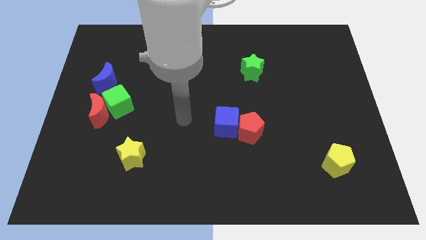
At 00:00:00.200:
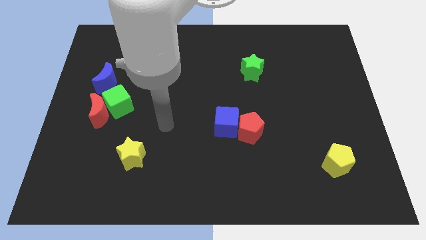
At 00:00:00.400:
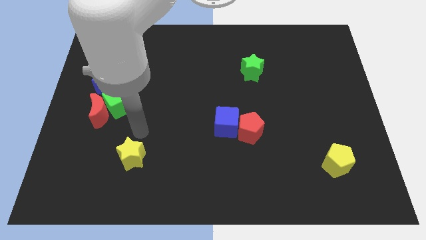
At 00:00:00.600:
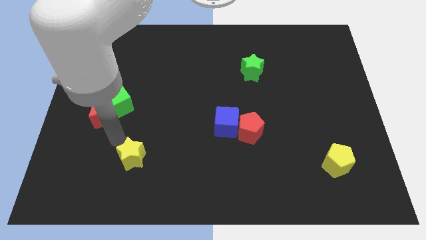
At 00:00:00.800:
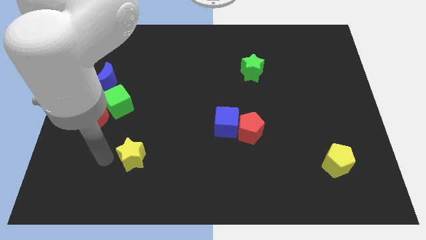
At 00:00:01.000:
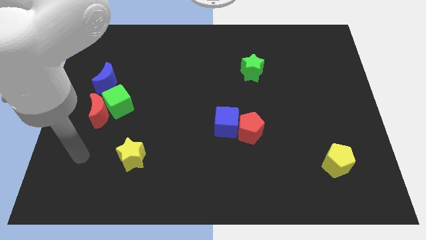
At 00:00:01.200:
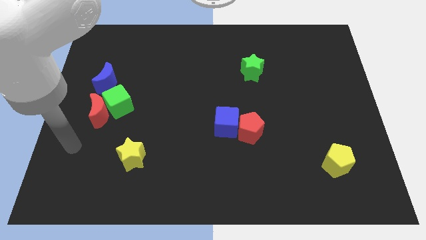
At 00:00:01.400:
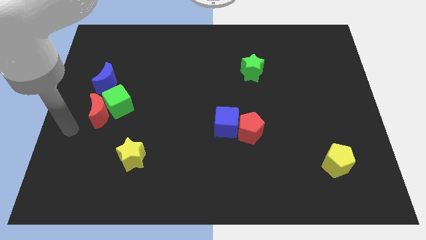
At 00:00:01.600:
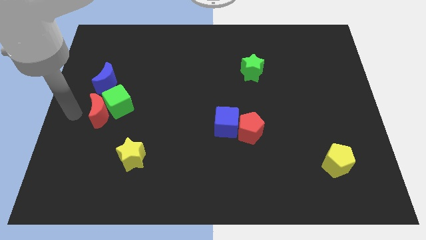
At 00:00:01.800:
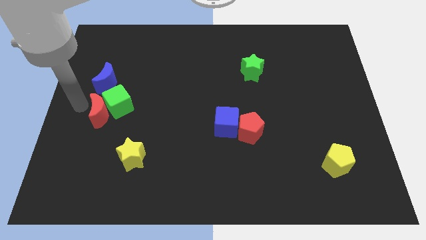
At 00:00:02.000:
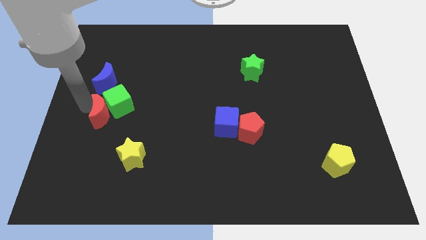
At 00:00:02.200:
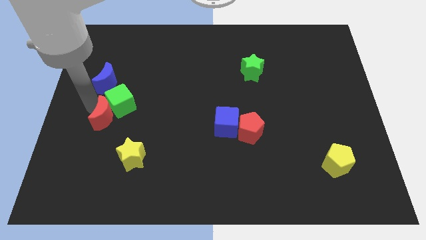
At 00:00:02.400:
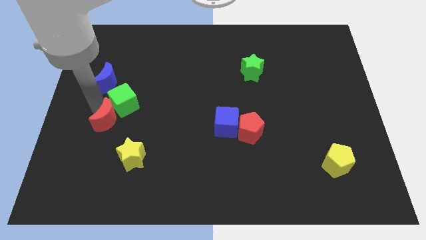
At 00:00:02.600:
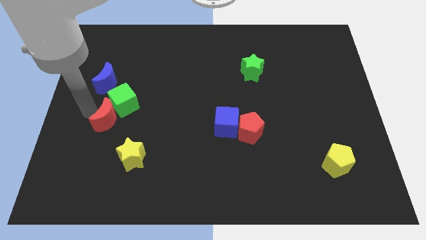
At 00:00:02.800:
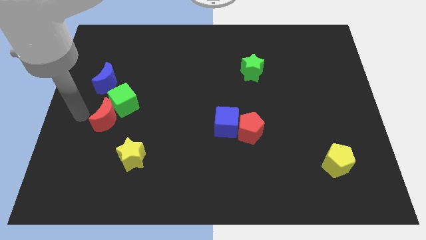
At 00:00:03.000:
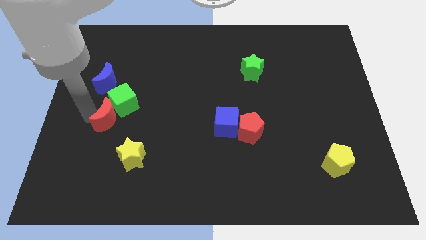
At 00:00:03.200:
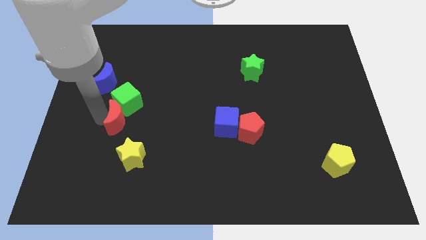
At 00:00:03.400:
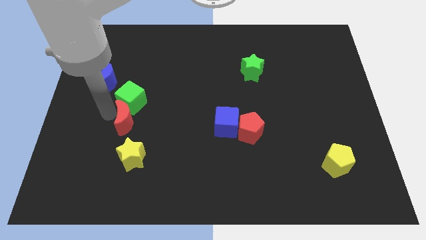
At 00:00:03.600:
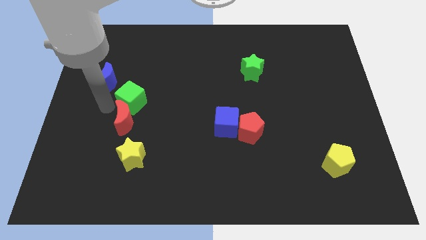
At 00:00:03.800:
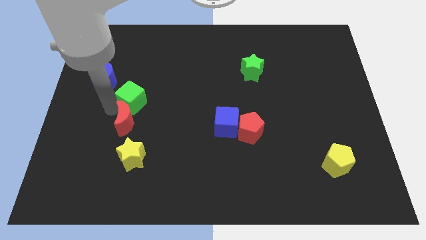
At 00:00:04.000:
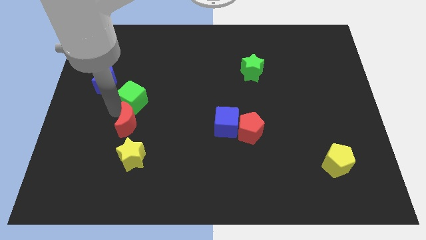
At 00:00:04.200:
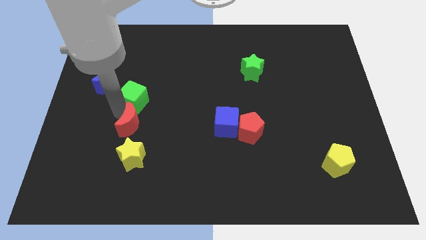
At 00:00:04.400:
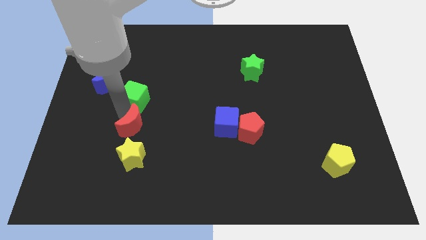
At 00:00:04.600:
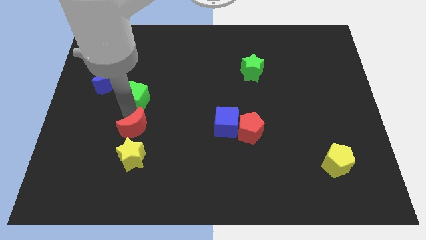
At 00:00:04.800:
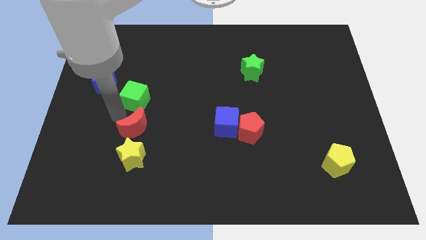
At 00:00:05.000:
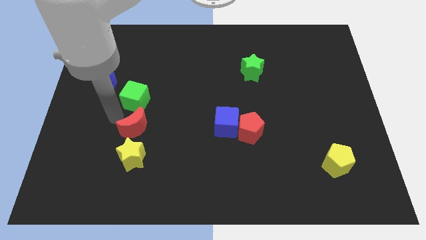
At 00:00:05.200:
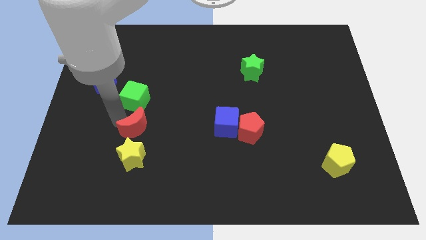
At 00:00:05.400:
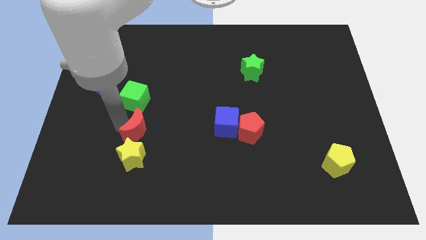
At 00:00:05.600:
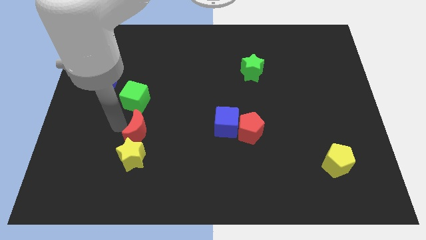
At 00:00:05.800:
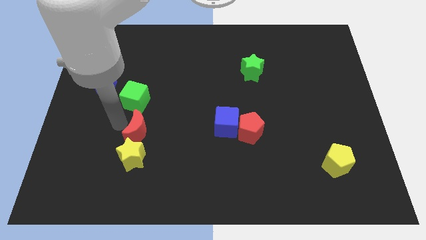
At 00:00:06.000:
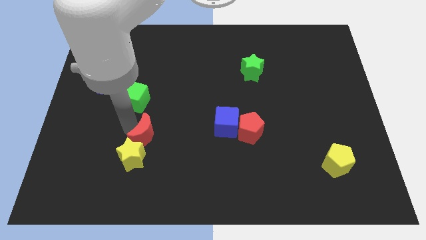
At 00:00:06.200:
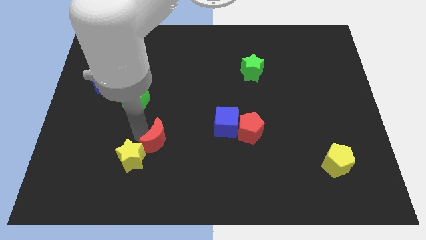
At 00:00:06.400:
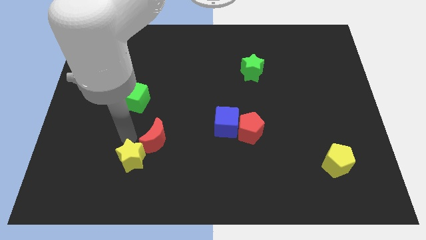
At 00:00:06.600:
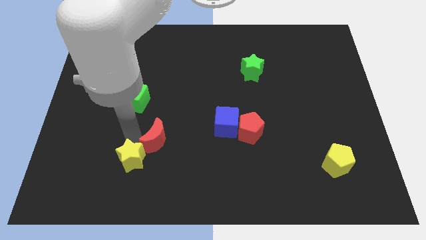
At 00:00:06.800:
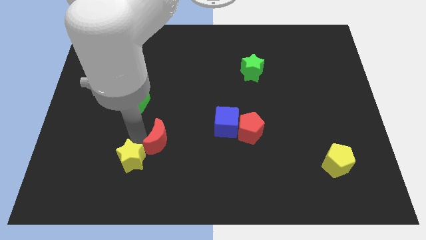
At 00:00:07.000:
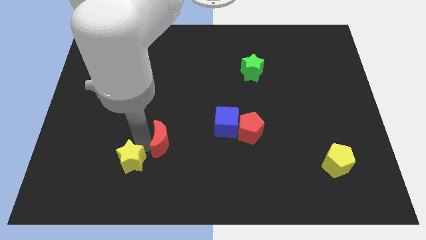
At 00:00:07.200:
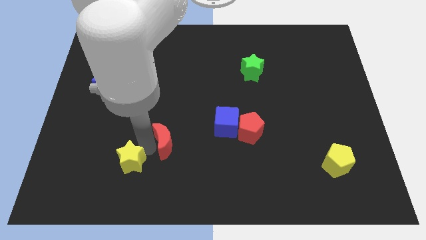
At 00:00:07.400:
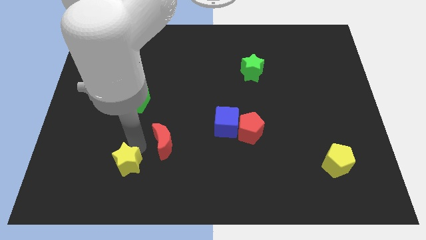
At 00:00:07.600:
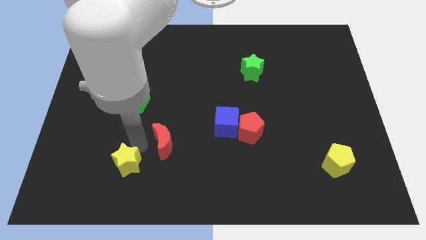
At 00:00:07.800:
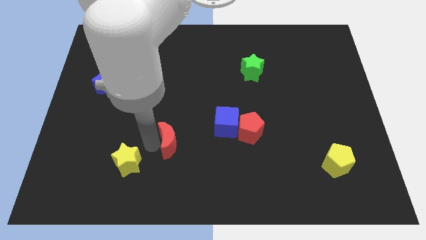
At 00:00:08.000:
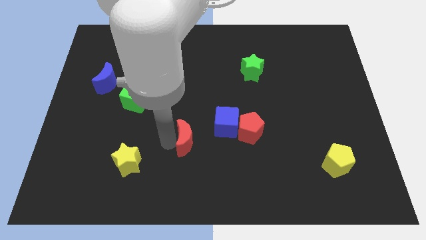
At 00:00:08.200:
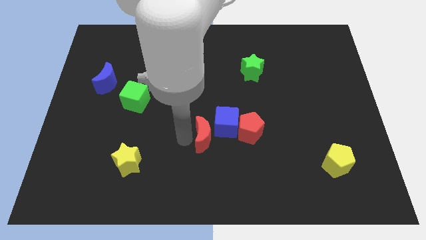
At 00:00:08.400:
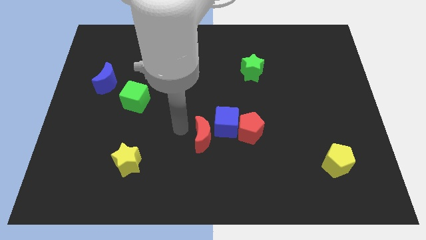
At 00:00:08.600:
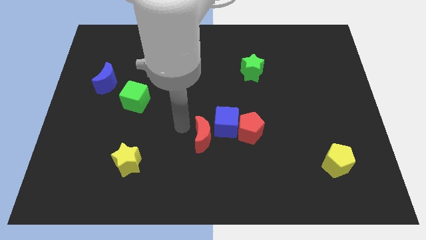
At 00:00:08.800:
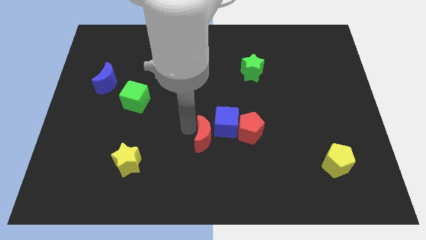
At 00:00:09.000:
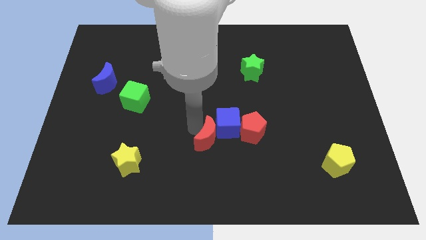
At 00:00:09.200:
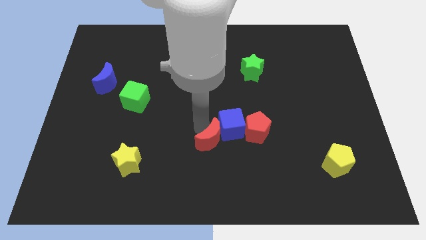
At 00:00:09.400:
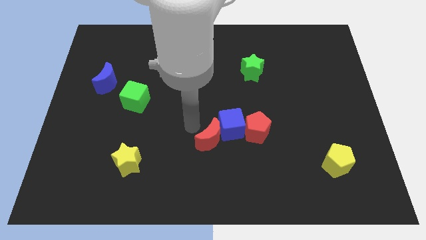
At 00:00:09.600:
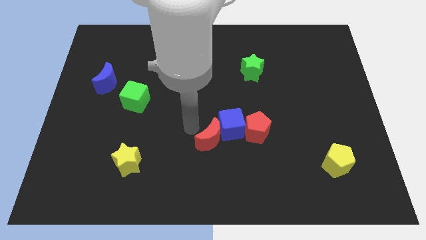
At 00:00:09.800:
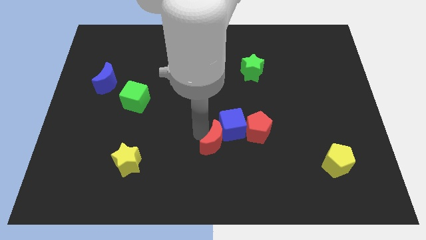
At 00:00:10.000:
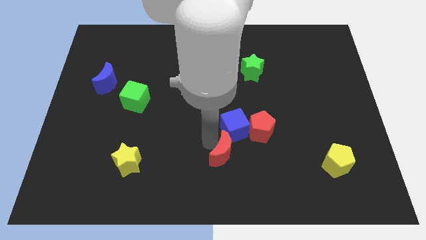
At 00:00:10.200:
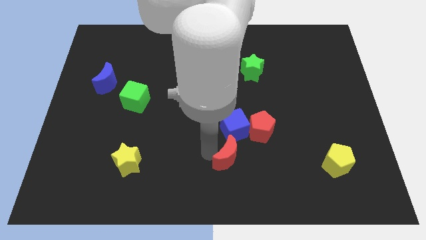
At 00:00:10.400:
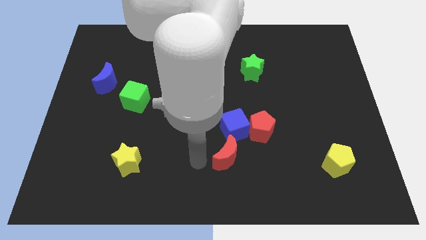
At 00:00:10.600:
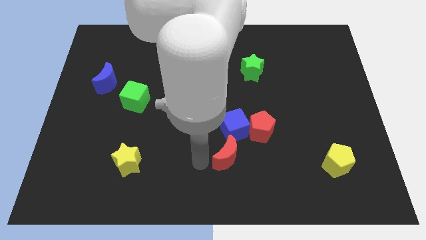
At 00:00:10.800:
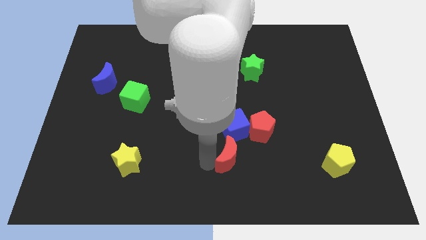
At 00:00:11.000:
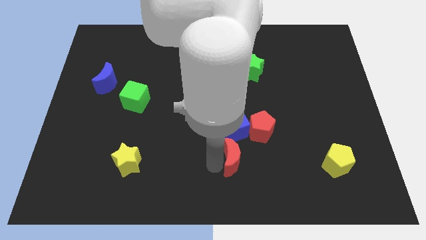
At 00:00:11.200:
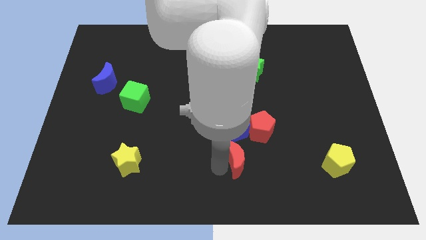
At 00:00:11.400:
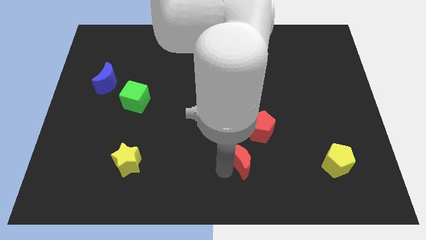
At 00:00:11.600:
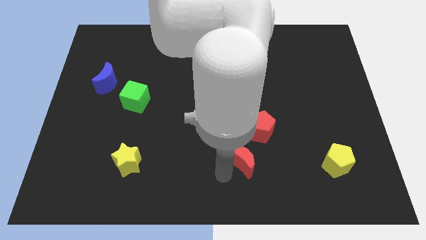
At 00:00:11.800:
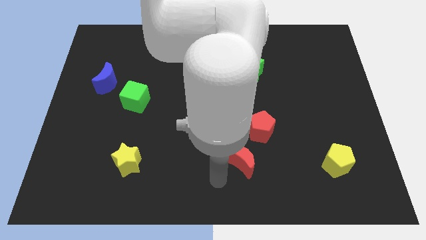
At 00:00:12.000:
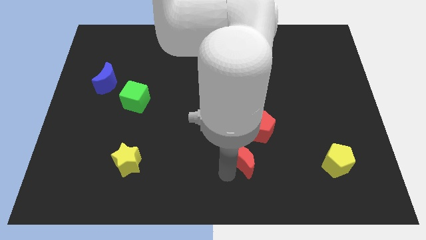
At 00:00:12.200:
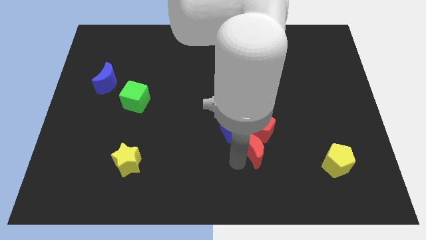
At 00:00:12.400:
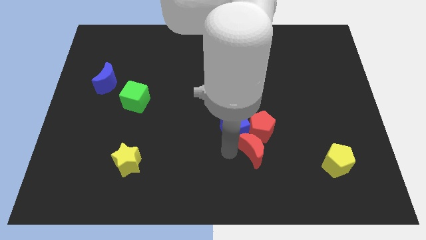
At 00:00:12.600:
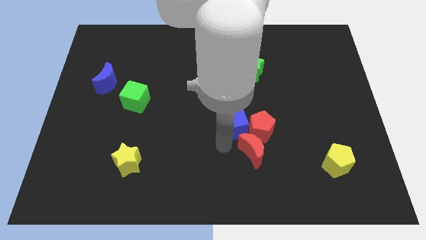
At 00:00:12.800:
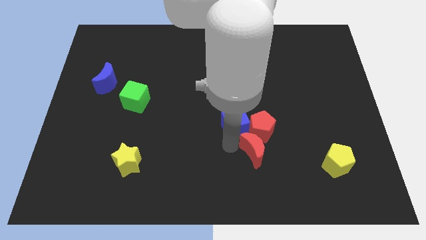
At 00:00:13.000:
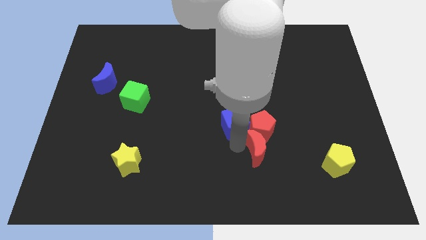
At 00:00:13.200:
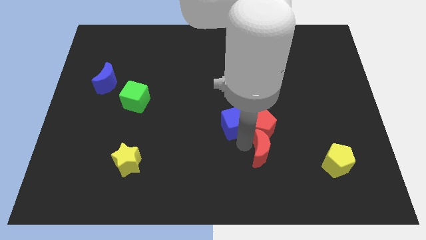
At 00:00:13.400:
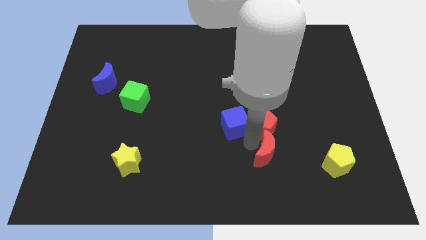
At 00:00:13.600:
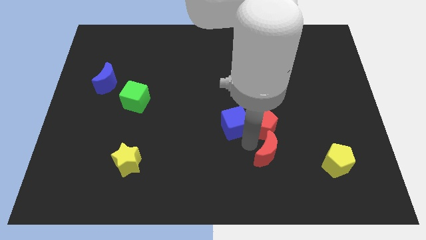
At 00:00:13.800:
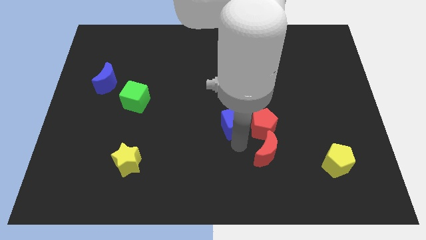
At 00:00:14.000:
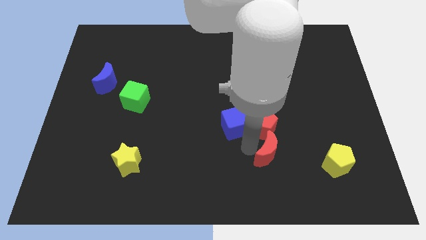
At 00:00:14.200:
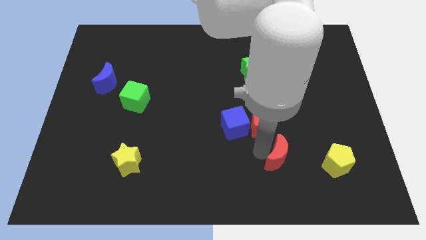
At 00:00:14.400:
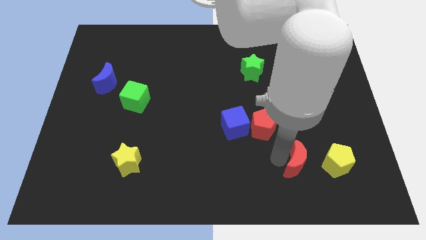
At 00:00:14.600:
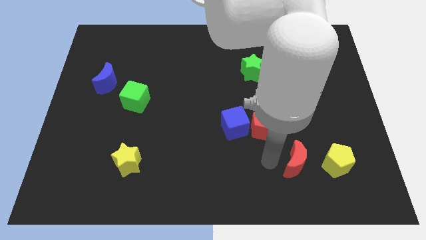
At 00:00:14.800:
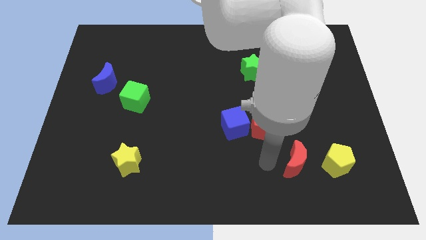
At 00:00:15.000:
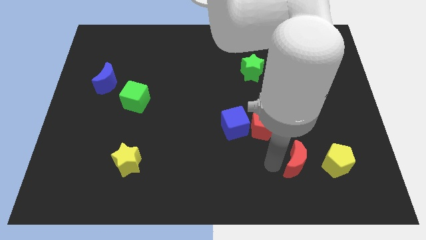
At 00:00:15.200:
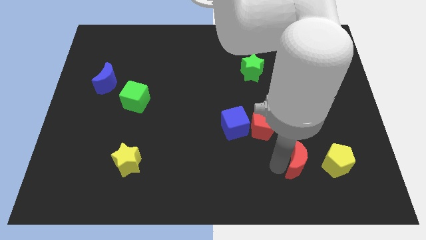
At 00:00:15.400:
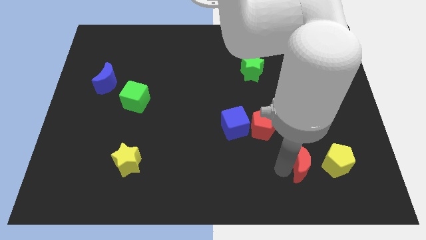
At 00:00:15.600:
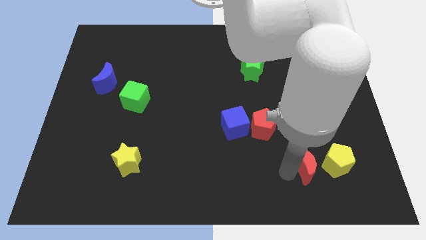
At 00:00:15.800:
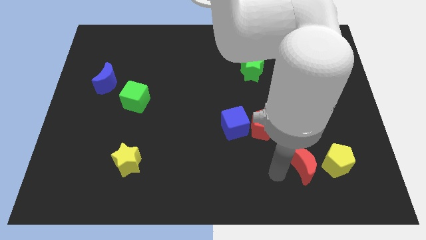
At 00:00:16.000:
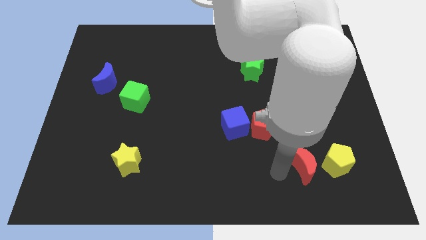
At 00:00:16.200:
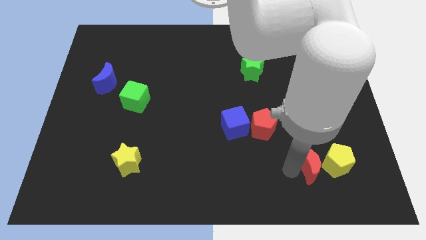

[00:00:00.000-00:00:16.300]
slide the red moon close to the yellow pentagon
